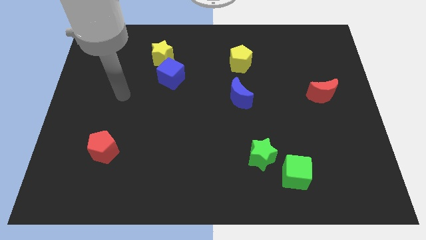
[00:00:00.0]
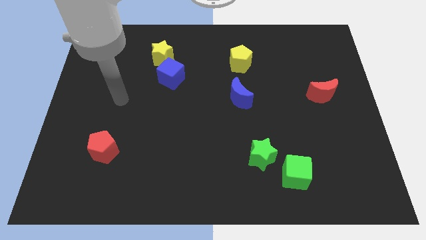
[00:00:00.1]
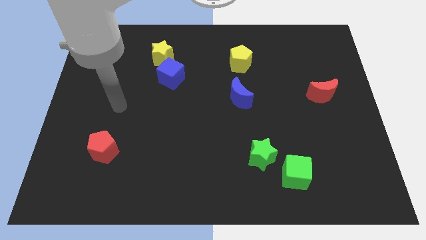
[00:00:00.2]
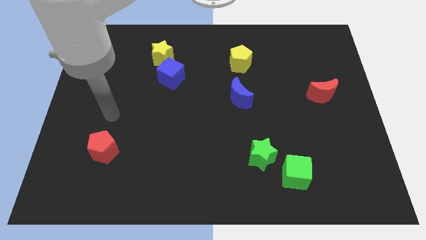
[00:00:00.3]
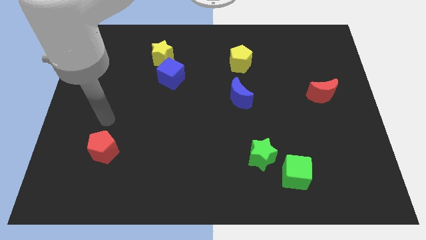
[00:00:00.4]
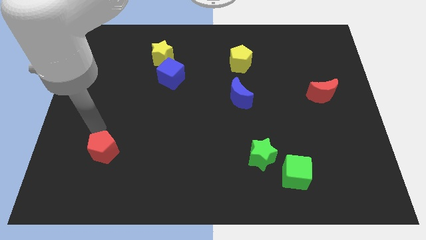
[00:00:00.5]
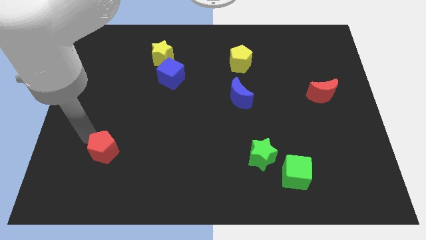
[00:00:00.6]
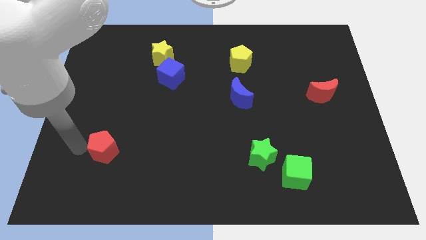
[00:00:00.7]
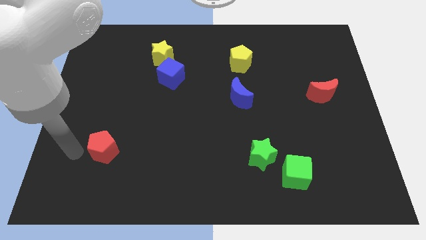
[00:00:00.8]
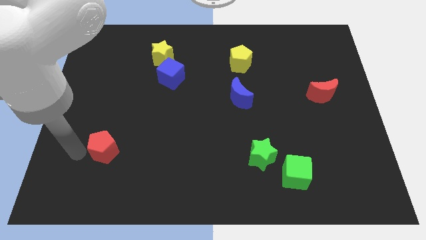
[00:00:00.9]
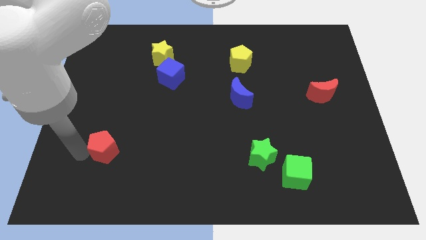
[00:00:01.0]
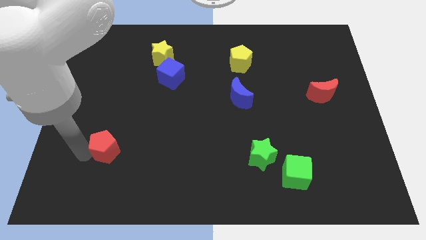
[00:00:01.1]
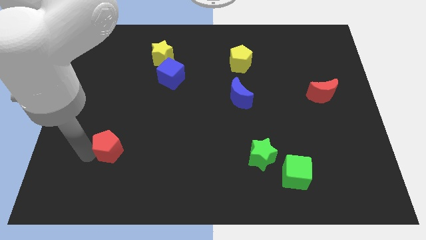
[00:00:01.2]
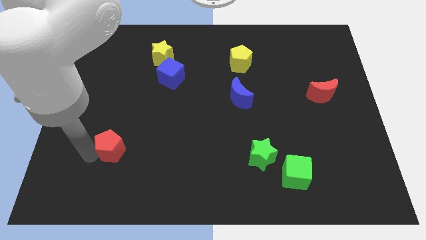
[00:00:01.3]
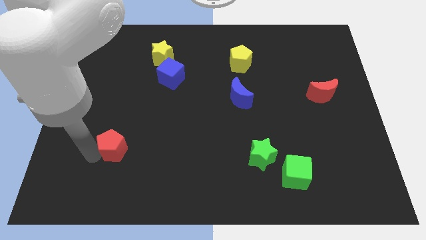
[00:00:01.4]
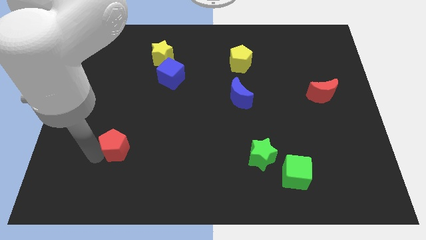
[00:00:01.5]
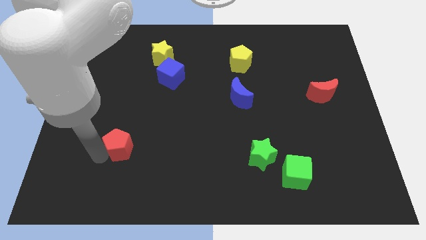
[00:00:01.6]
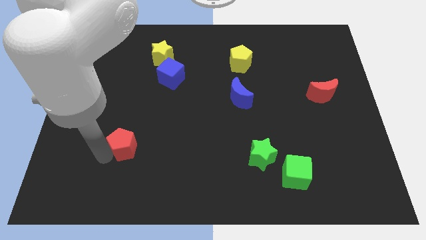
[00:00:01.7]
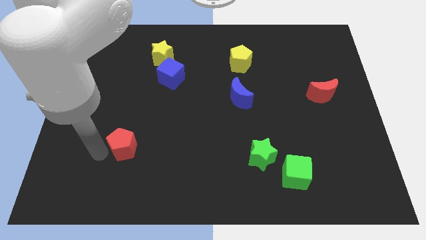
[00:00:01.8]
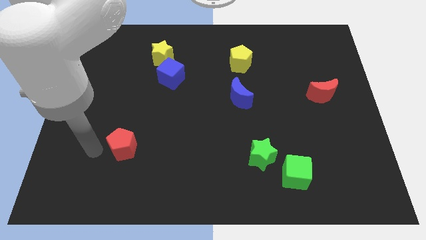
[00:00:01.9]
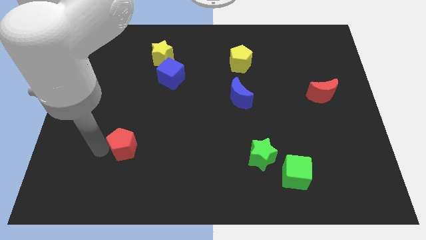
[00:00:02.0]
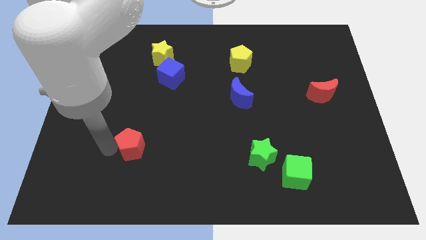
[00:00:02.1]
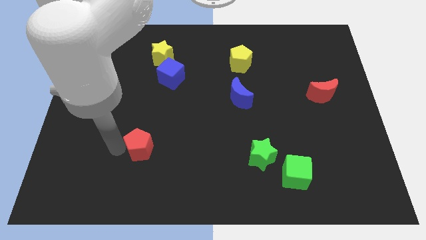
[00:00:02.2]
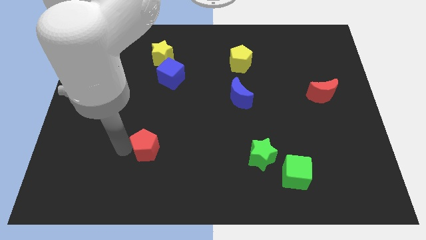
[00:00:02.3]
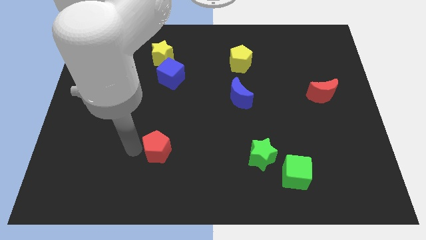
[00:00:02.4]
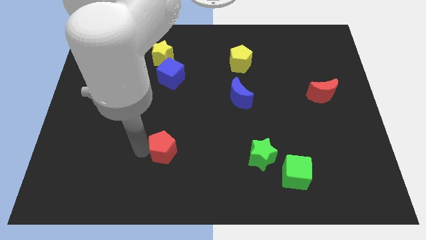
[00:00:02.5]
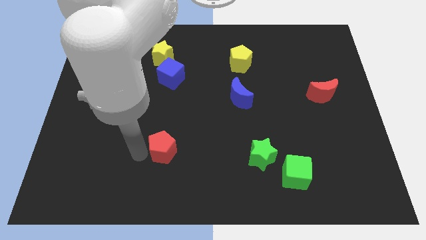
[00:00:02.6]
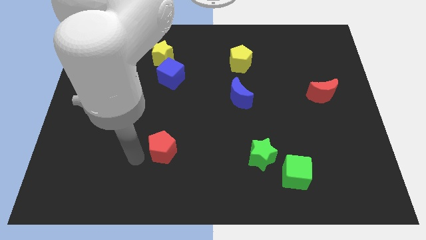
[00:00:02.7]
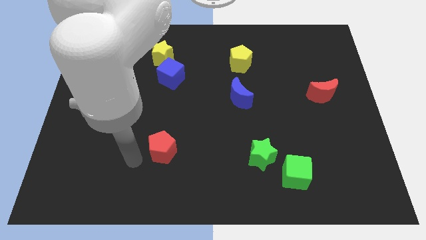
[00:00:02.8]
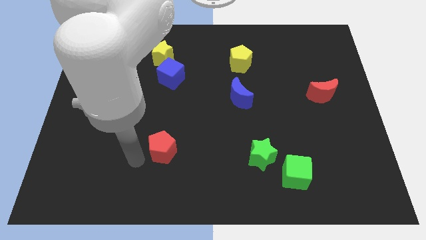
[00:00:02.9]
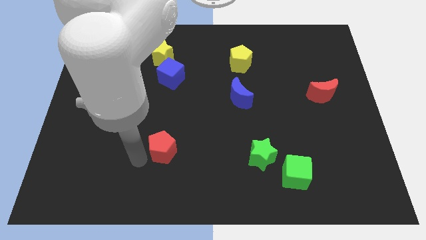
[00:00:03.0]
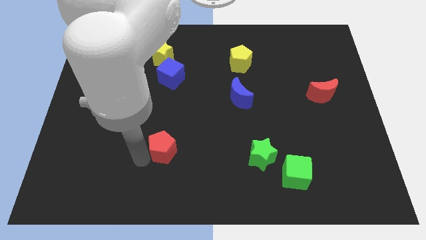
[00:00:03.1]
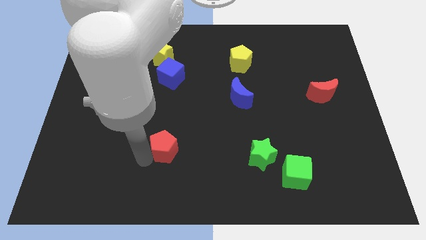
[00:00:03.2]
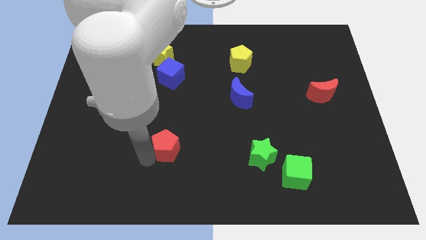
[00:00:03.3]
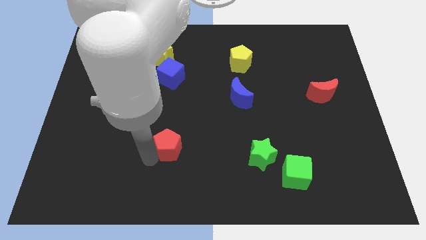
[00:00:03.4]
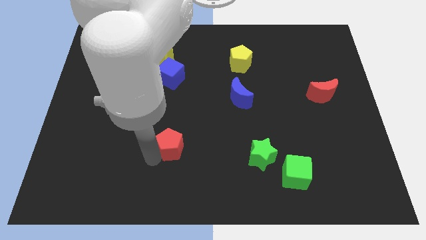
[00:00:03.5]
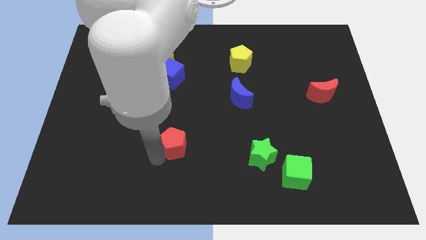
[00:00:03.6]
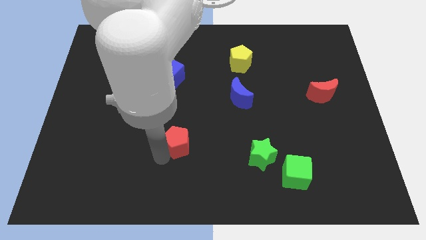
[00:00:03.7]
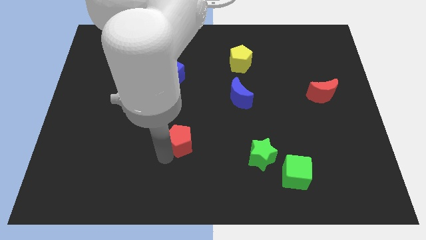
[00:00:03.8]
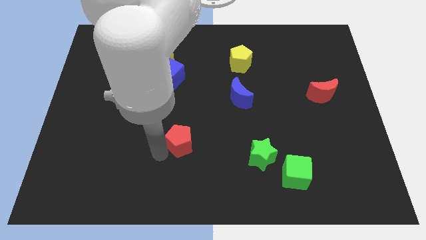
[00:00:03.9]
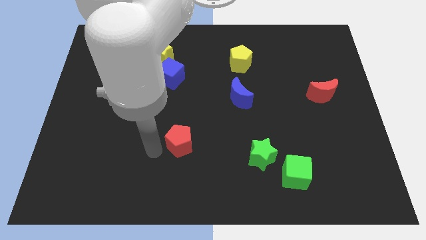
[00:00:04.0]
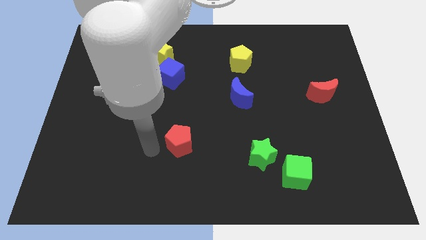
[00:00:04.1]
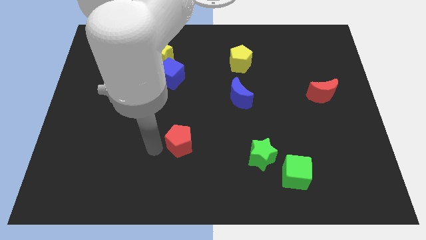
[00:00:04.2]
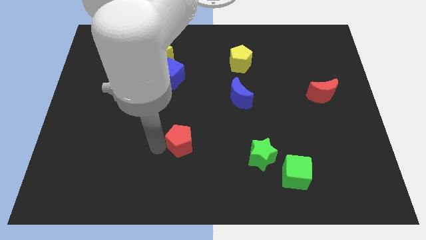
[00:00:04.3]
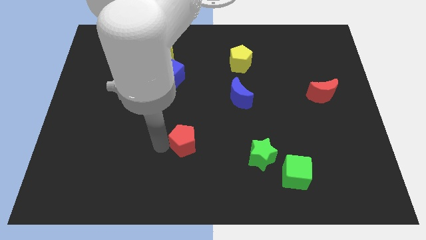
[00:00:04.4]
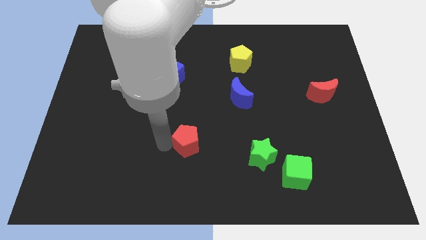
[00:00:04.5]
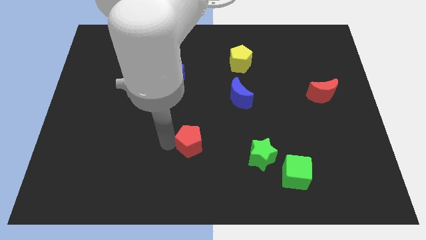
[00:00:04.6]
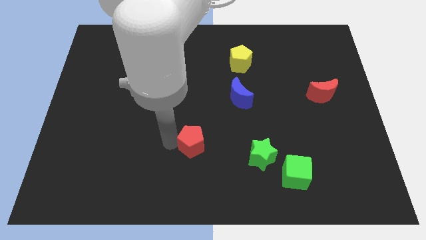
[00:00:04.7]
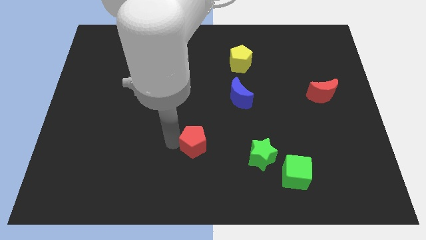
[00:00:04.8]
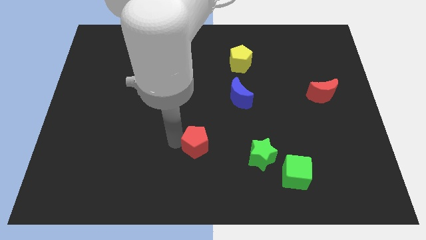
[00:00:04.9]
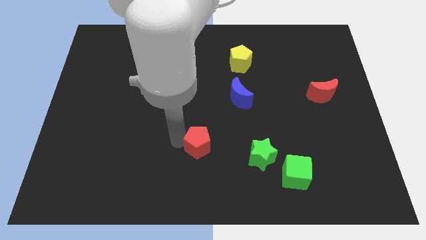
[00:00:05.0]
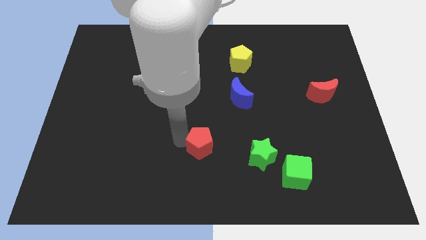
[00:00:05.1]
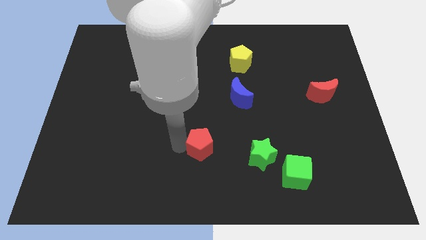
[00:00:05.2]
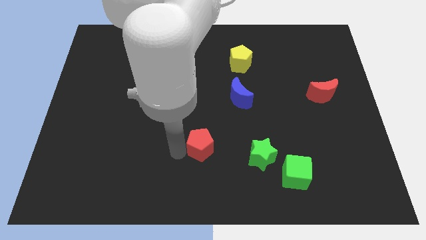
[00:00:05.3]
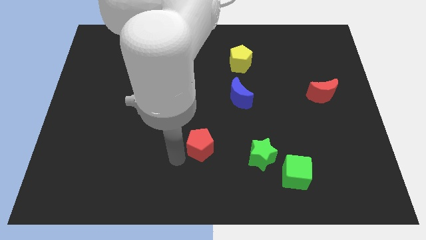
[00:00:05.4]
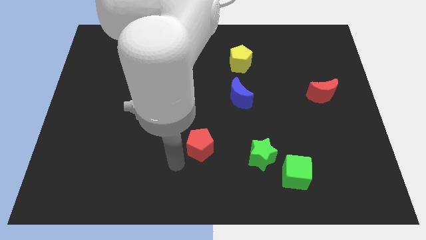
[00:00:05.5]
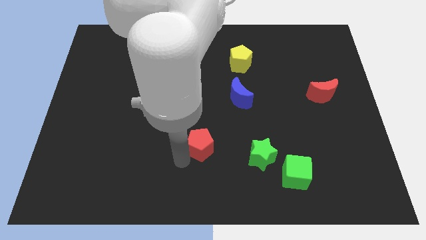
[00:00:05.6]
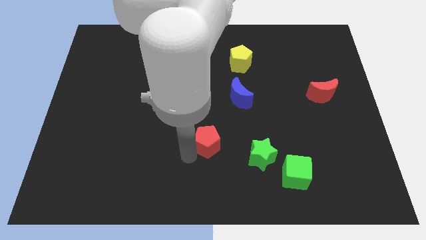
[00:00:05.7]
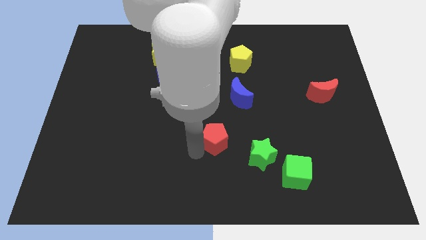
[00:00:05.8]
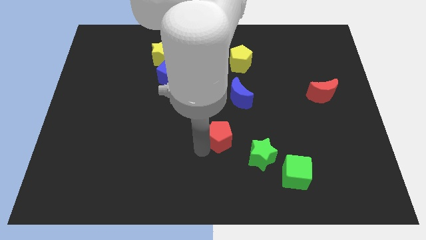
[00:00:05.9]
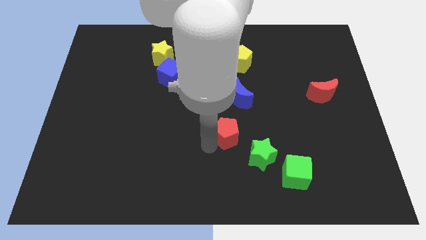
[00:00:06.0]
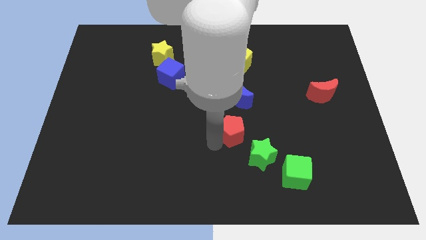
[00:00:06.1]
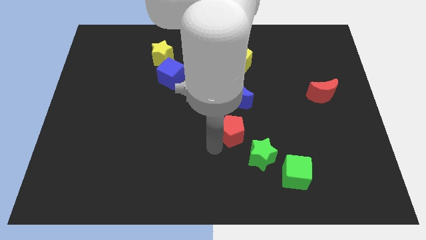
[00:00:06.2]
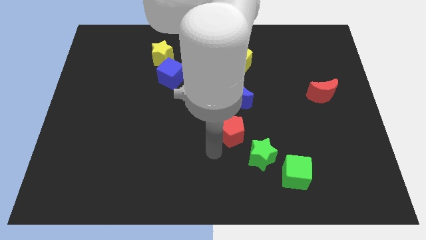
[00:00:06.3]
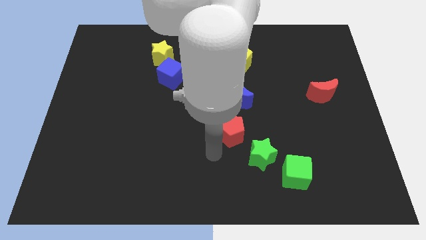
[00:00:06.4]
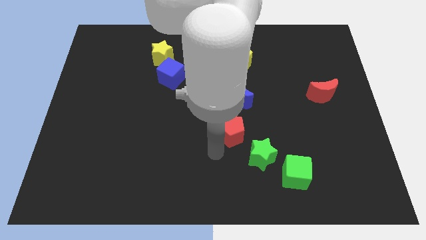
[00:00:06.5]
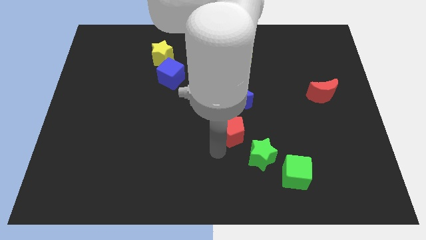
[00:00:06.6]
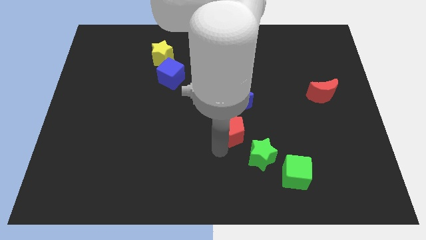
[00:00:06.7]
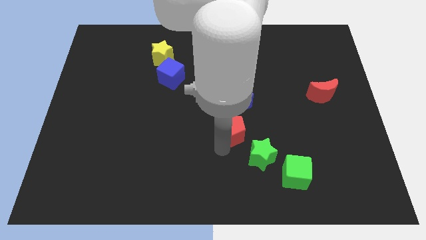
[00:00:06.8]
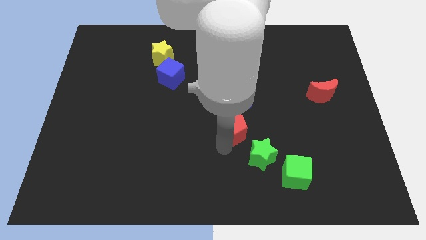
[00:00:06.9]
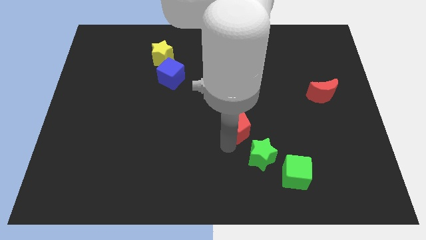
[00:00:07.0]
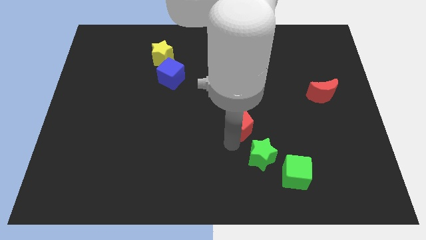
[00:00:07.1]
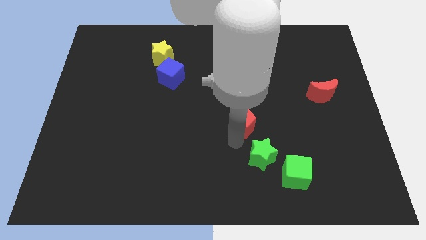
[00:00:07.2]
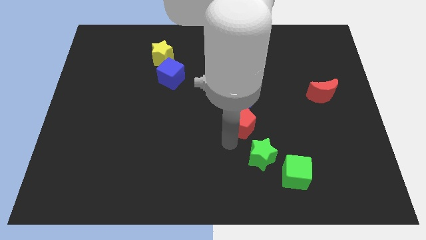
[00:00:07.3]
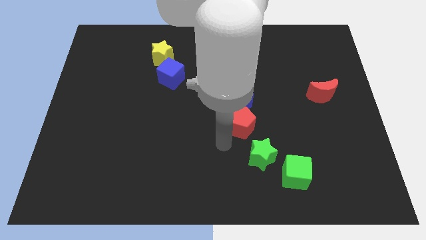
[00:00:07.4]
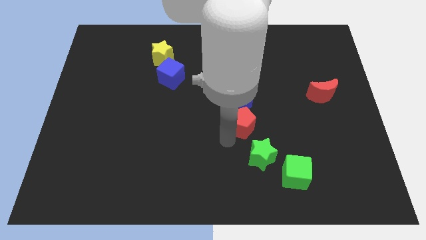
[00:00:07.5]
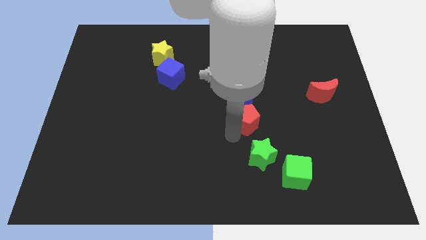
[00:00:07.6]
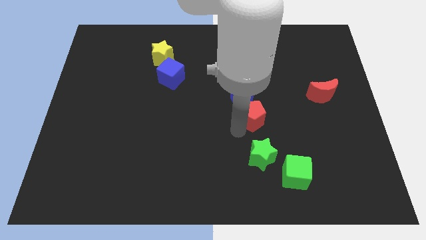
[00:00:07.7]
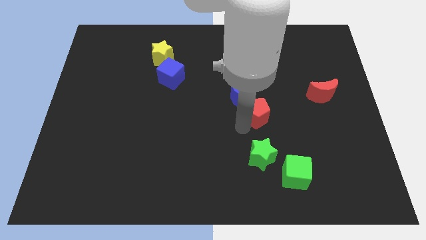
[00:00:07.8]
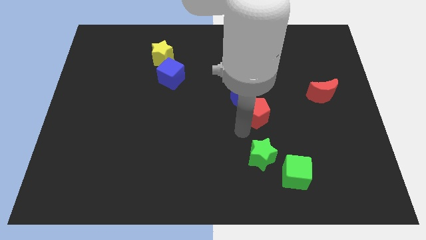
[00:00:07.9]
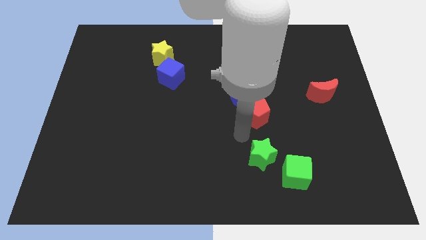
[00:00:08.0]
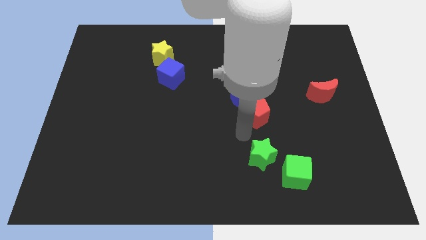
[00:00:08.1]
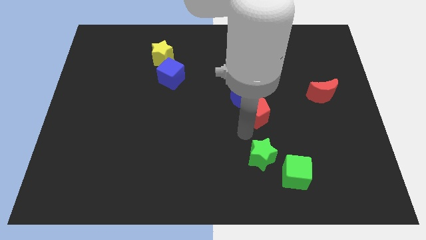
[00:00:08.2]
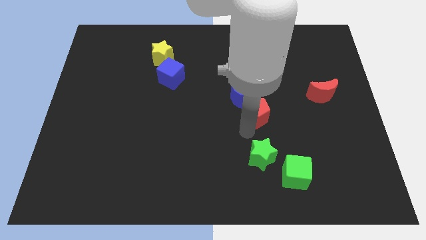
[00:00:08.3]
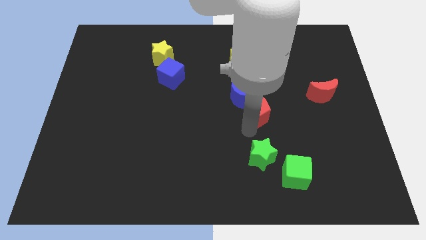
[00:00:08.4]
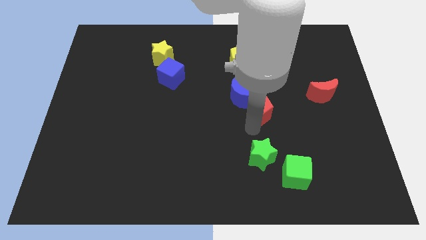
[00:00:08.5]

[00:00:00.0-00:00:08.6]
move the red pentagon to the right of the blue moon
